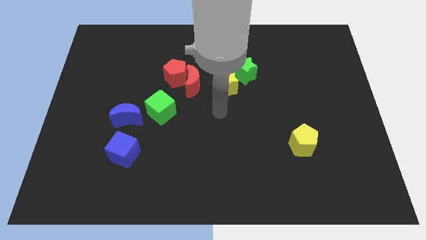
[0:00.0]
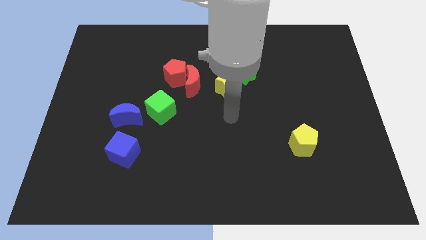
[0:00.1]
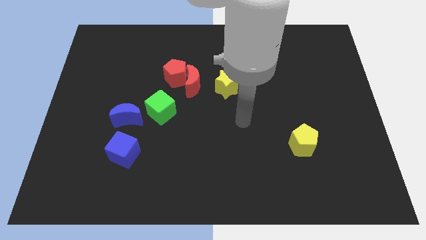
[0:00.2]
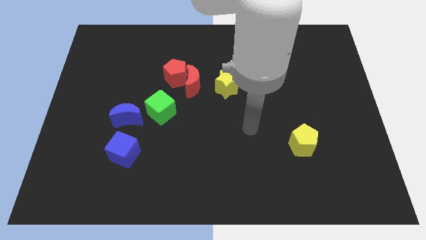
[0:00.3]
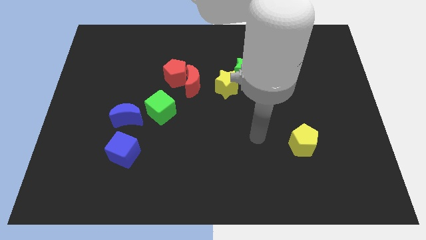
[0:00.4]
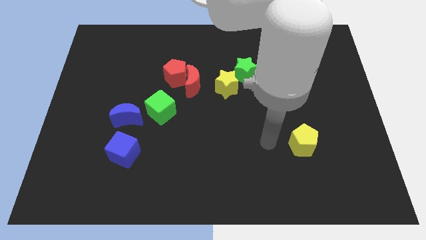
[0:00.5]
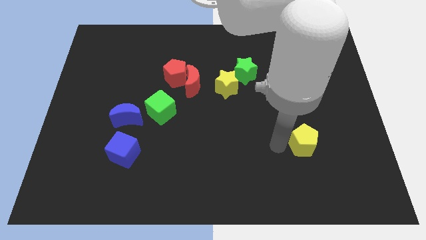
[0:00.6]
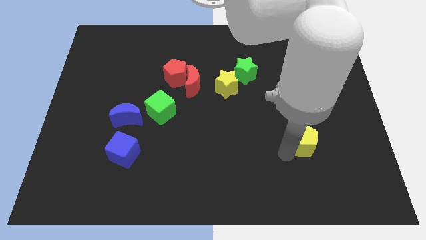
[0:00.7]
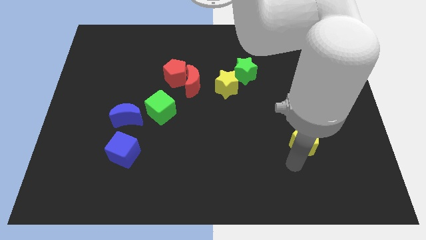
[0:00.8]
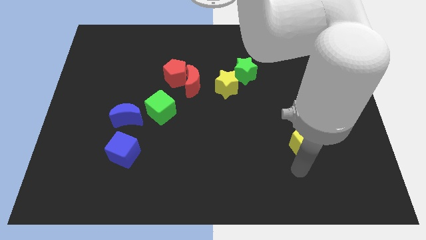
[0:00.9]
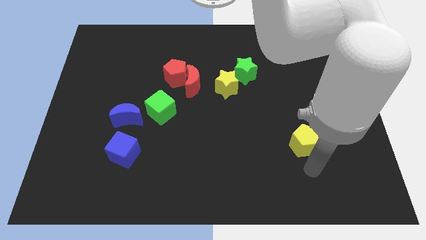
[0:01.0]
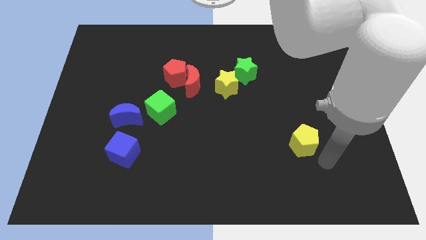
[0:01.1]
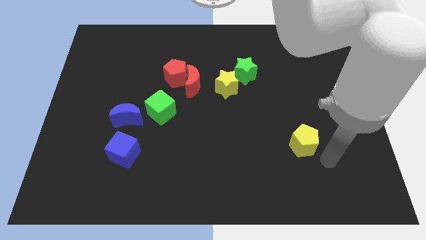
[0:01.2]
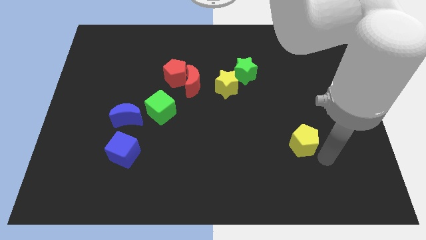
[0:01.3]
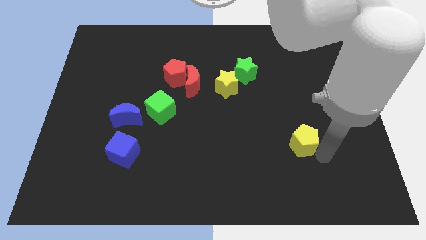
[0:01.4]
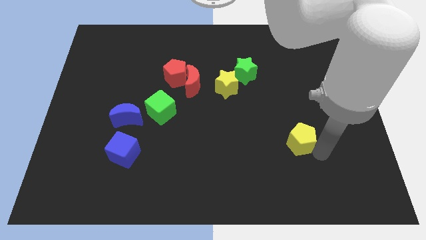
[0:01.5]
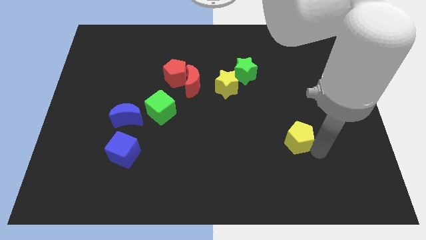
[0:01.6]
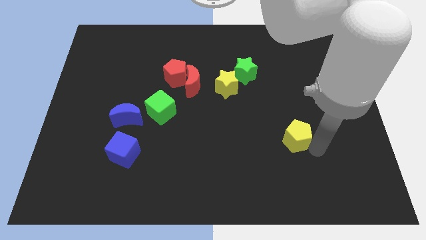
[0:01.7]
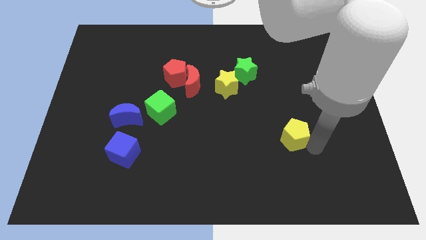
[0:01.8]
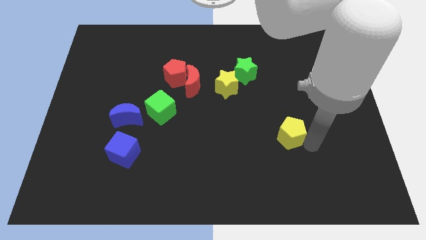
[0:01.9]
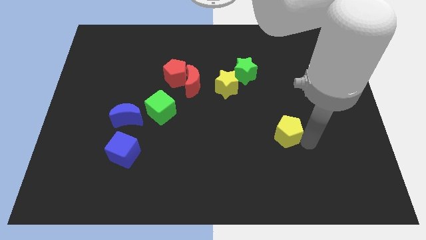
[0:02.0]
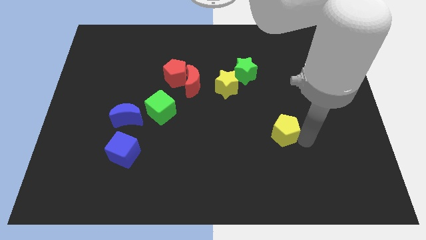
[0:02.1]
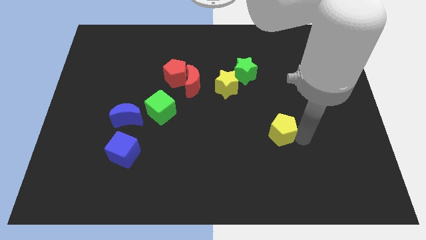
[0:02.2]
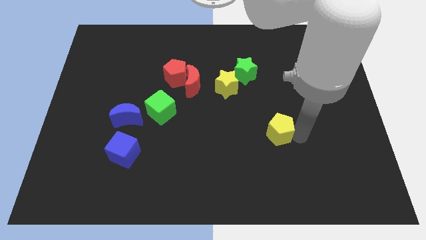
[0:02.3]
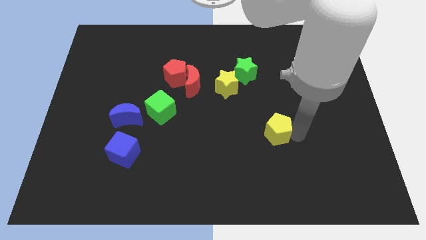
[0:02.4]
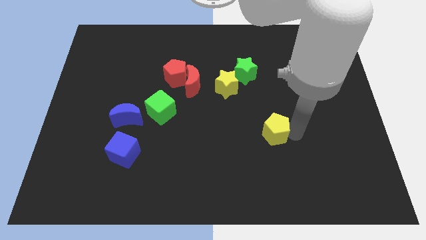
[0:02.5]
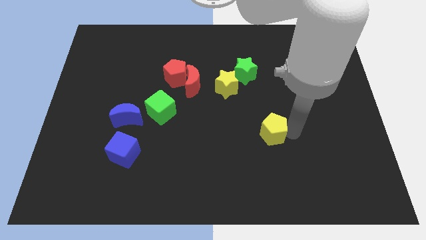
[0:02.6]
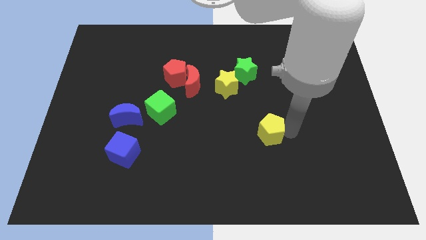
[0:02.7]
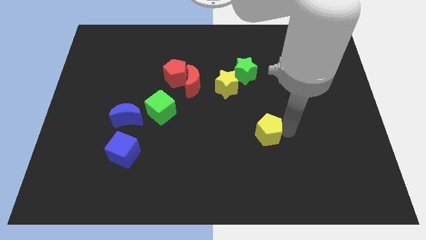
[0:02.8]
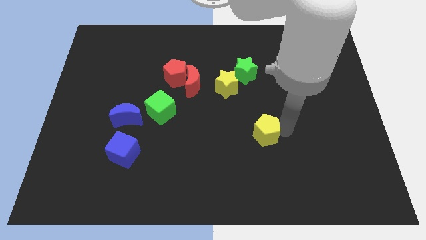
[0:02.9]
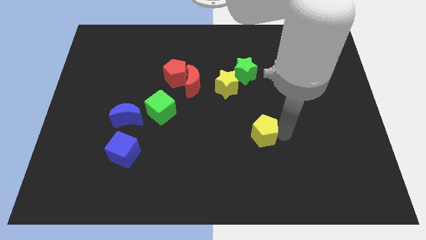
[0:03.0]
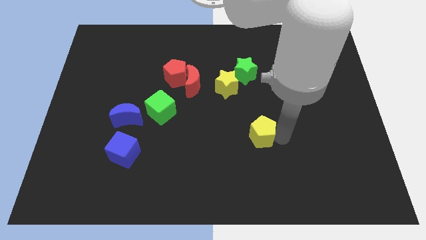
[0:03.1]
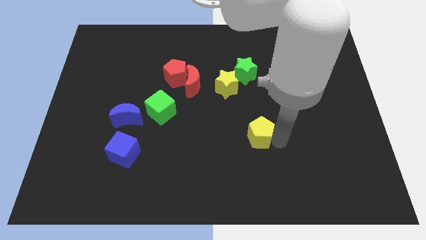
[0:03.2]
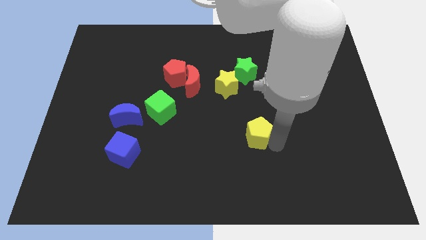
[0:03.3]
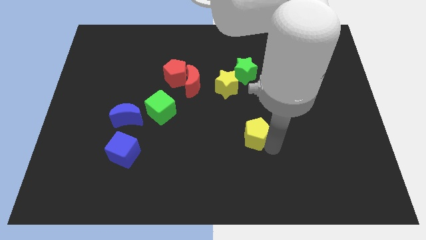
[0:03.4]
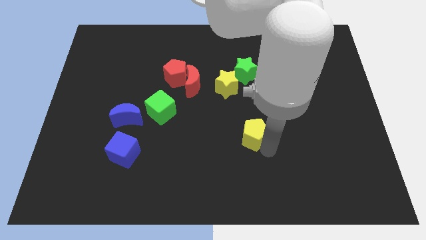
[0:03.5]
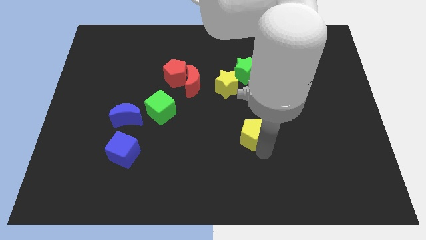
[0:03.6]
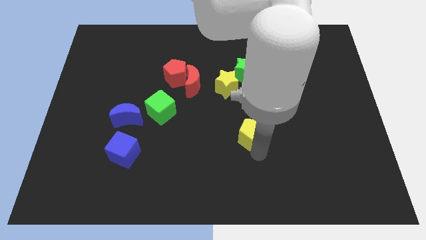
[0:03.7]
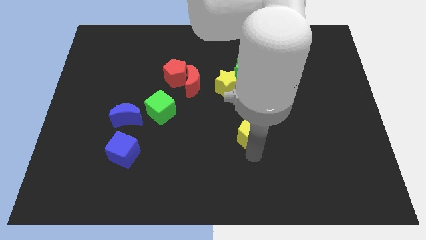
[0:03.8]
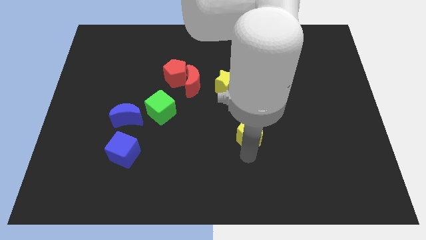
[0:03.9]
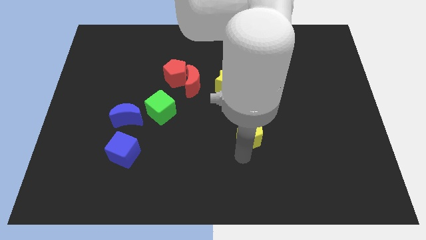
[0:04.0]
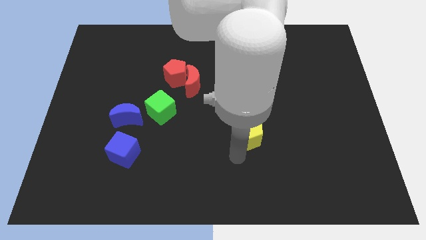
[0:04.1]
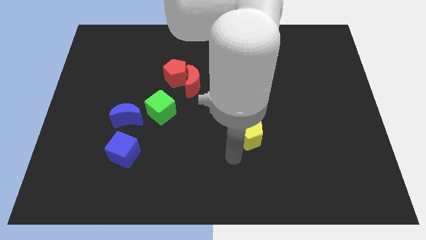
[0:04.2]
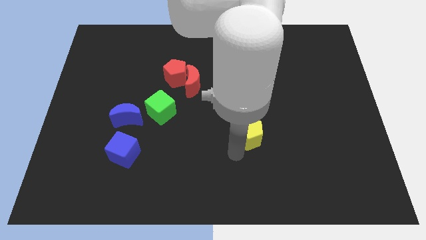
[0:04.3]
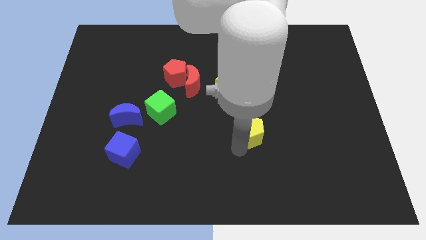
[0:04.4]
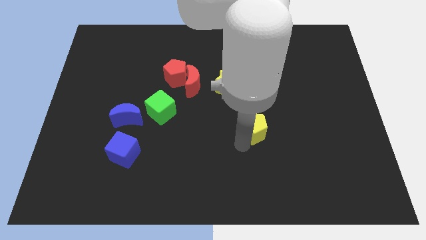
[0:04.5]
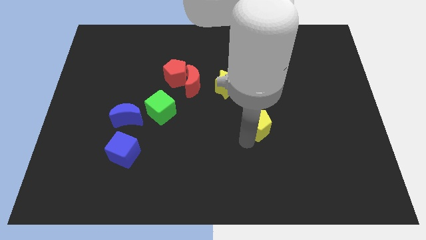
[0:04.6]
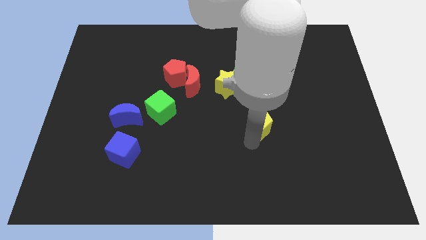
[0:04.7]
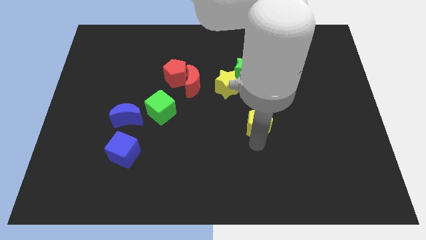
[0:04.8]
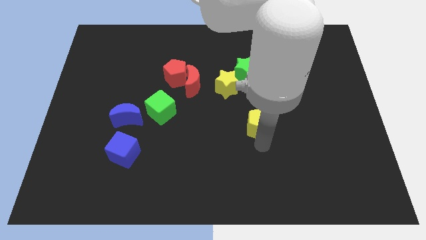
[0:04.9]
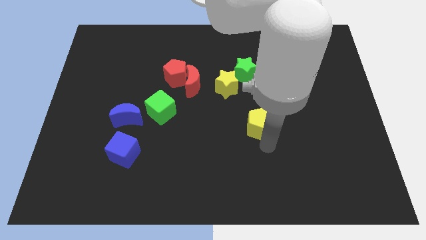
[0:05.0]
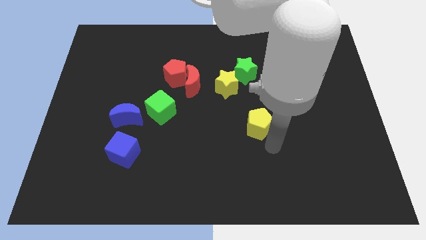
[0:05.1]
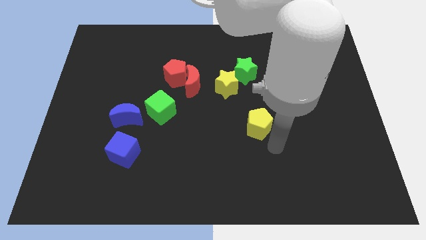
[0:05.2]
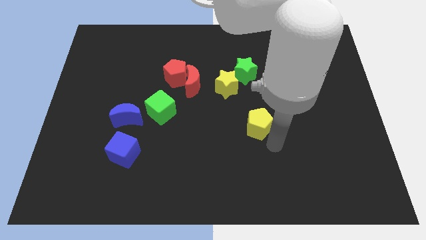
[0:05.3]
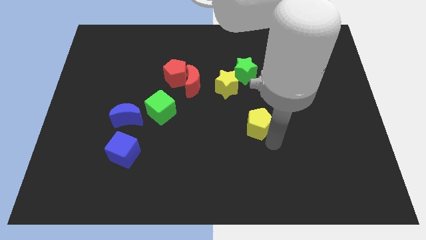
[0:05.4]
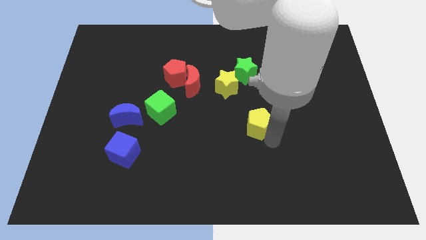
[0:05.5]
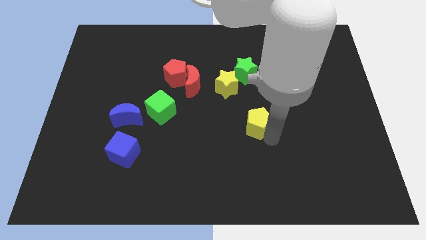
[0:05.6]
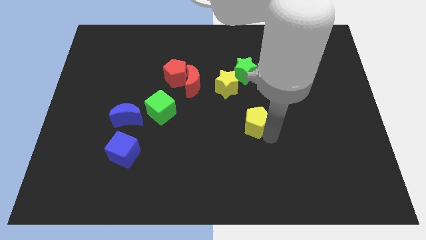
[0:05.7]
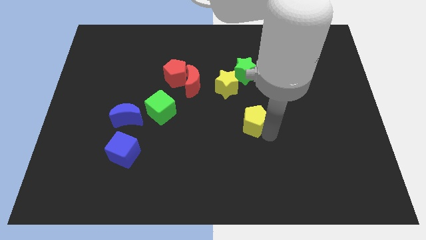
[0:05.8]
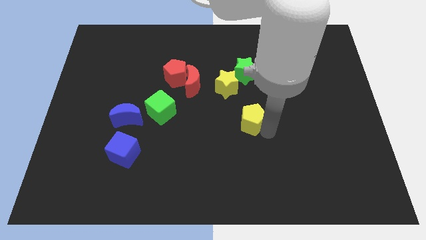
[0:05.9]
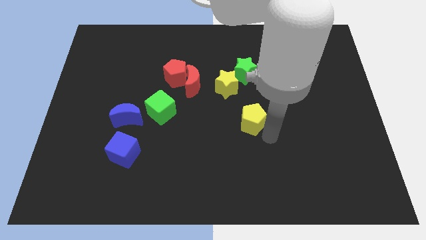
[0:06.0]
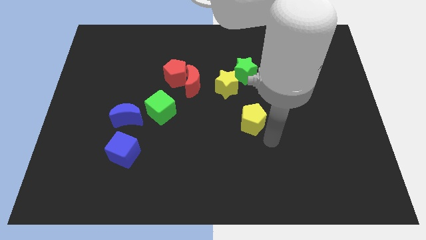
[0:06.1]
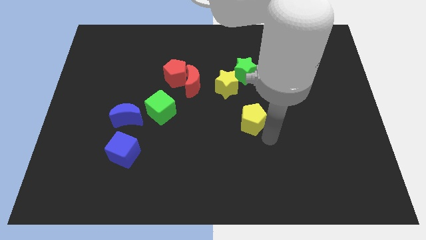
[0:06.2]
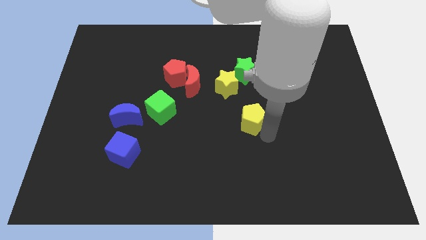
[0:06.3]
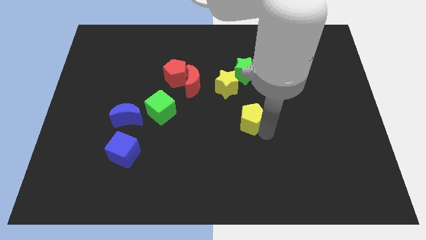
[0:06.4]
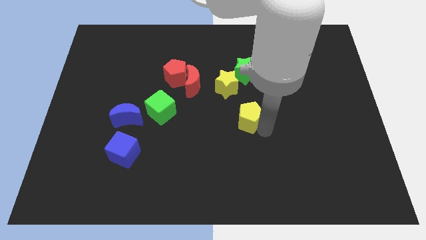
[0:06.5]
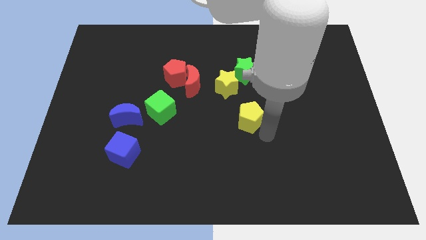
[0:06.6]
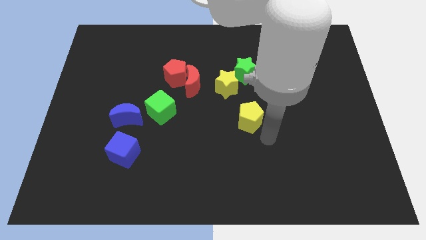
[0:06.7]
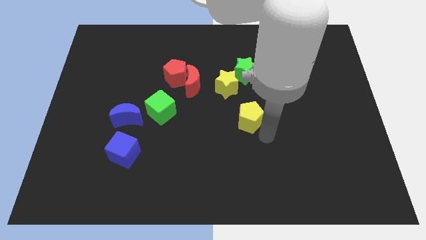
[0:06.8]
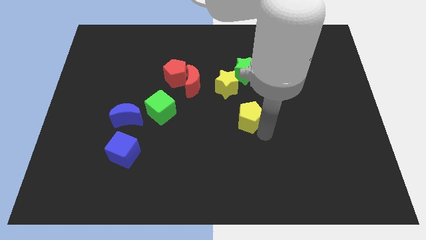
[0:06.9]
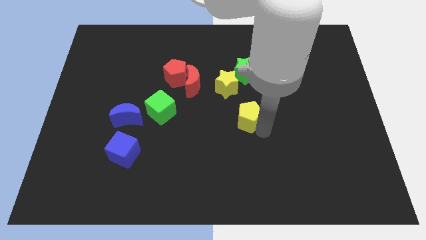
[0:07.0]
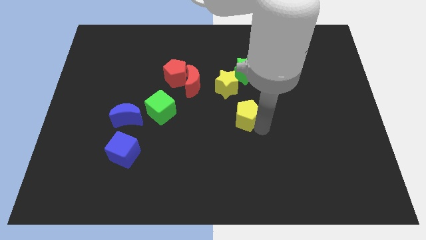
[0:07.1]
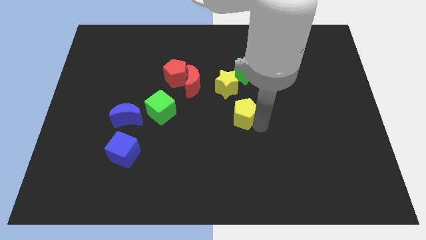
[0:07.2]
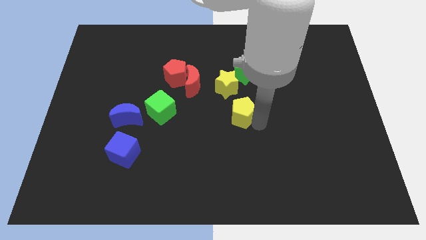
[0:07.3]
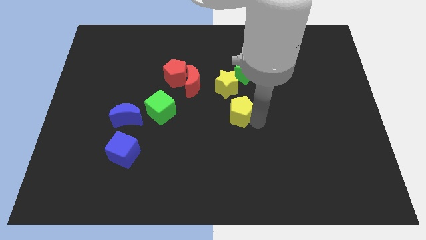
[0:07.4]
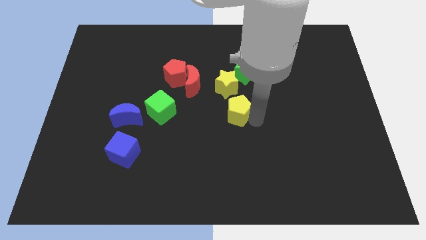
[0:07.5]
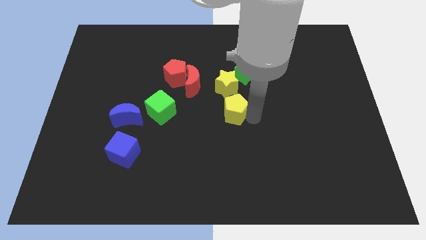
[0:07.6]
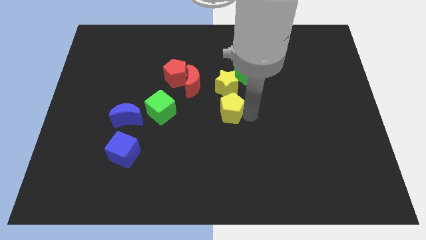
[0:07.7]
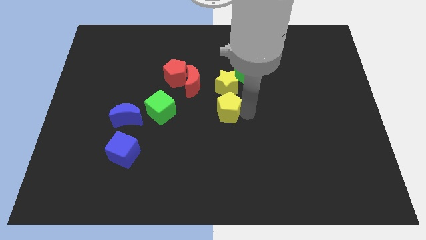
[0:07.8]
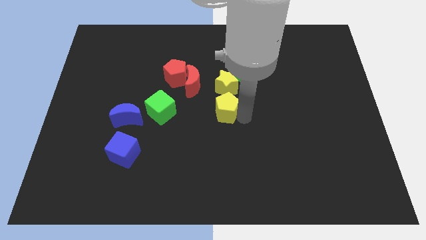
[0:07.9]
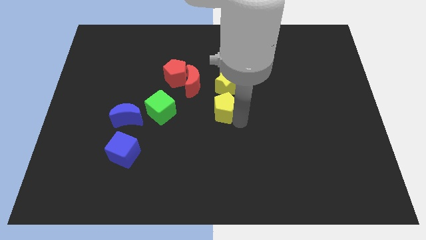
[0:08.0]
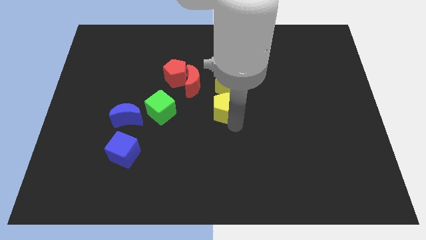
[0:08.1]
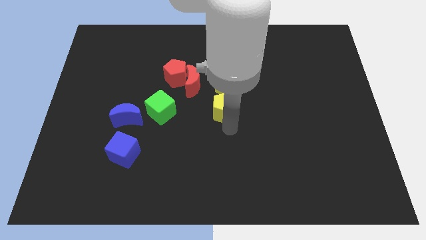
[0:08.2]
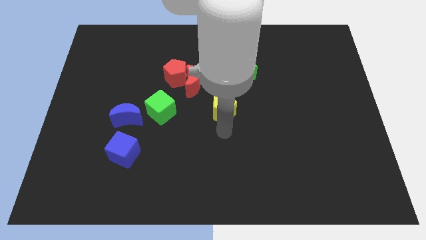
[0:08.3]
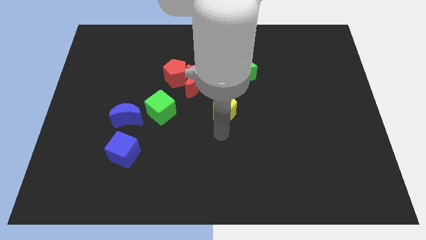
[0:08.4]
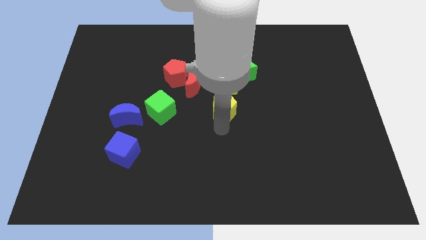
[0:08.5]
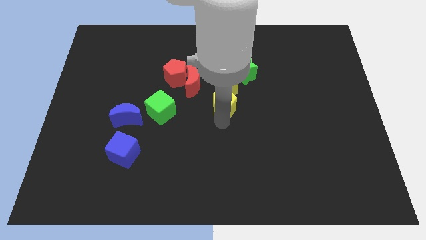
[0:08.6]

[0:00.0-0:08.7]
put the yellow pentagon towards the yellow star
